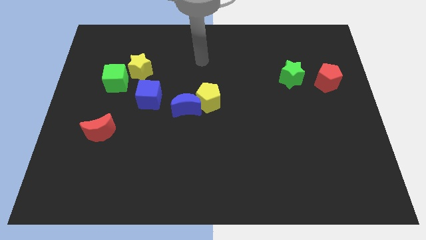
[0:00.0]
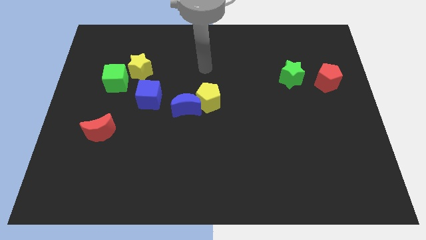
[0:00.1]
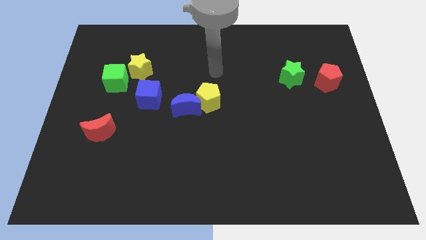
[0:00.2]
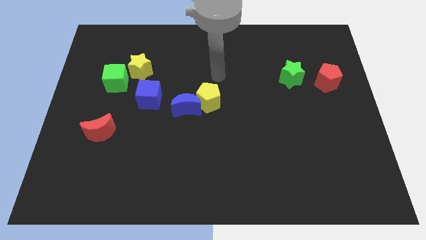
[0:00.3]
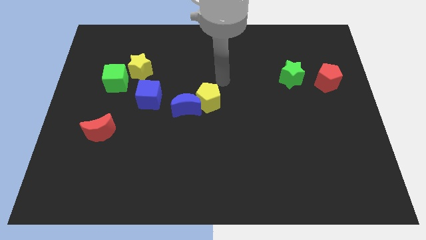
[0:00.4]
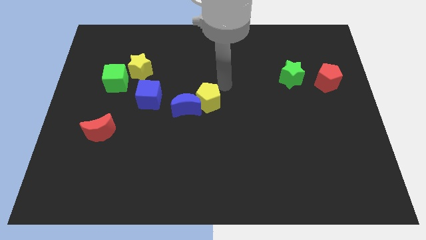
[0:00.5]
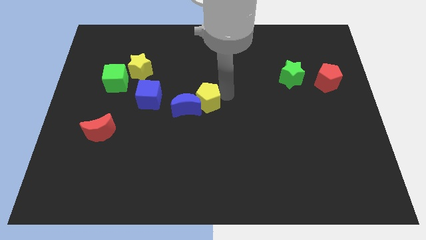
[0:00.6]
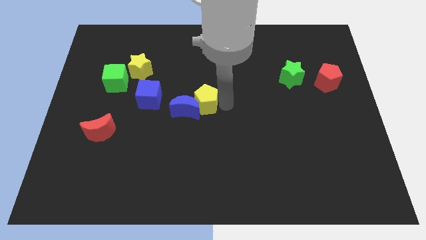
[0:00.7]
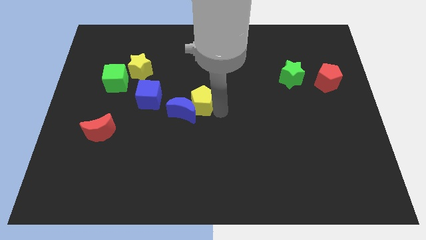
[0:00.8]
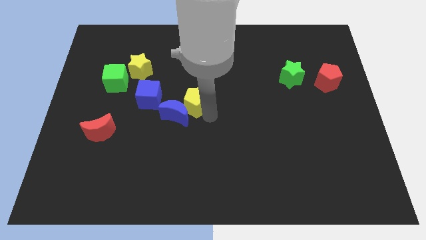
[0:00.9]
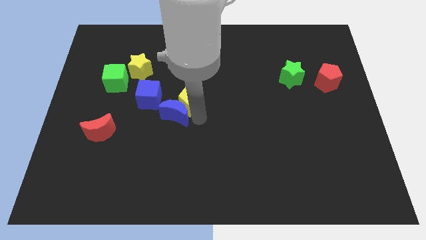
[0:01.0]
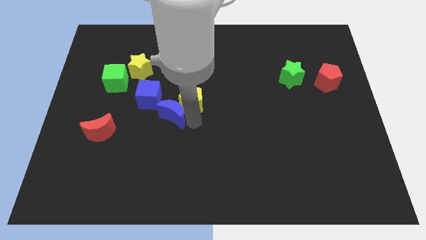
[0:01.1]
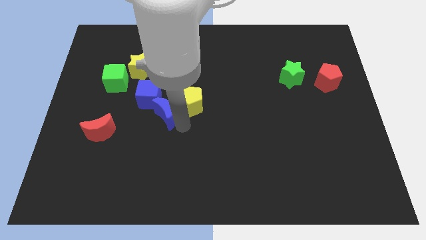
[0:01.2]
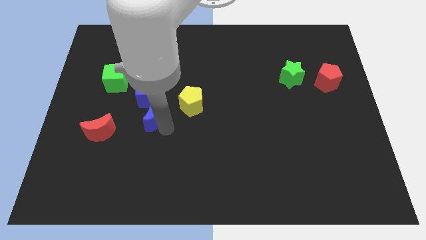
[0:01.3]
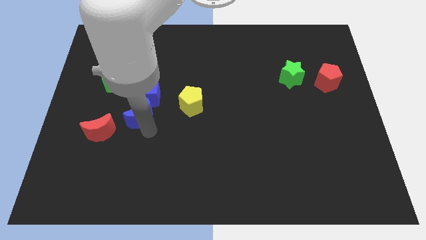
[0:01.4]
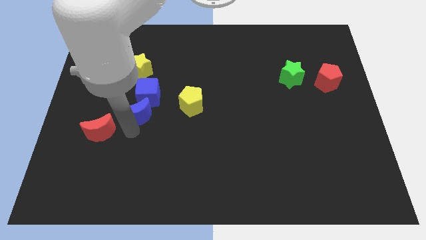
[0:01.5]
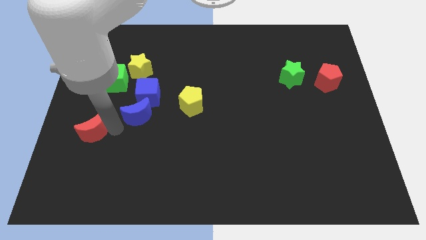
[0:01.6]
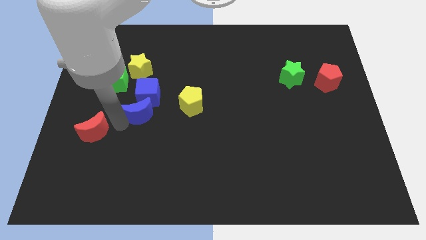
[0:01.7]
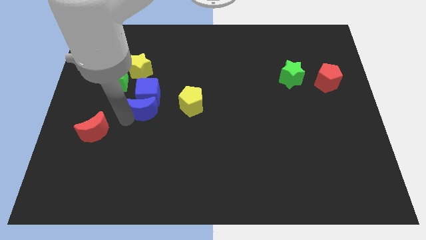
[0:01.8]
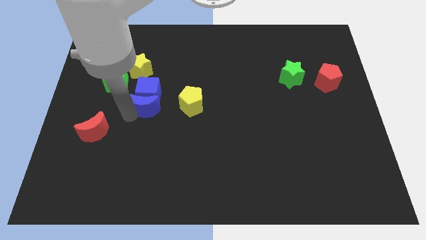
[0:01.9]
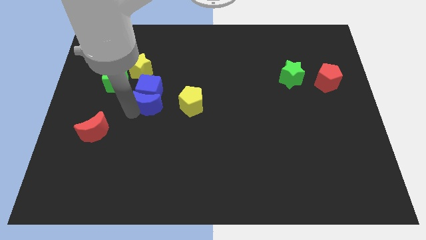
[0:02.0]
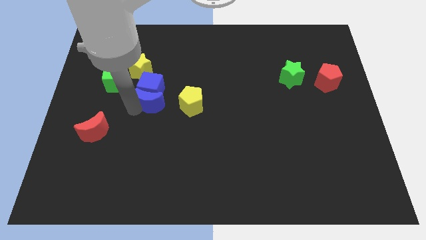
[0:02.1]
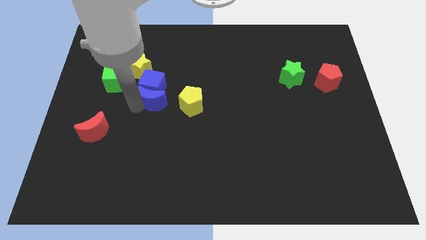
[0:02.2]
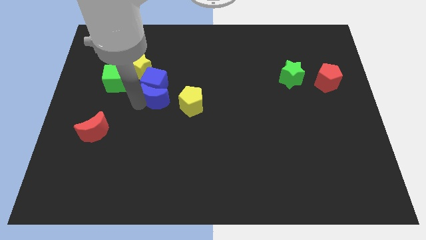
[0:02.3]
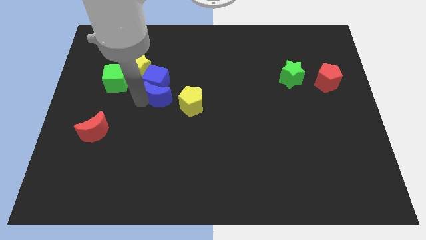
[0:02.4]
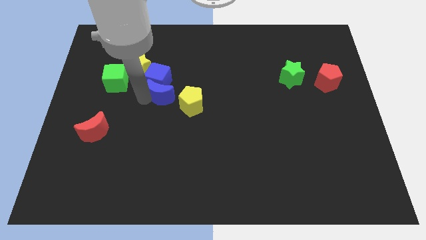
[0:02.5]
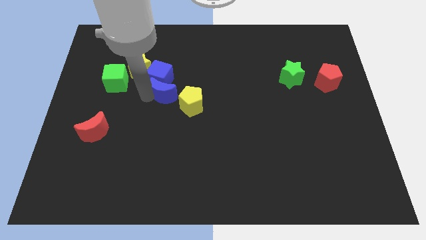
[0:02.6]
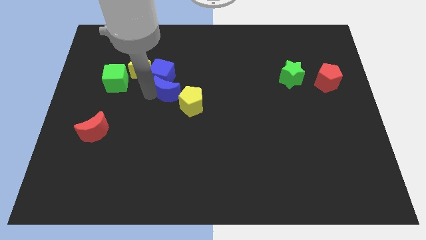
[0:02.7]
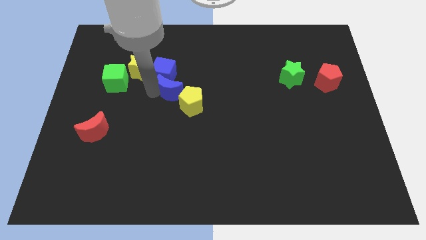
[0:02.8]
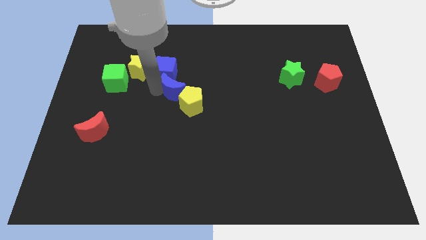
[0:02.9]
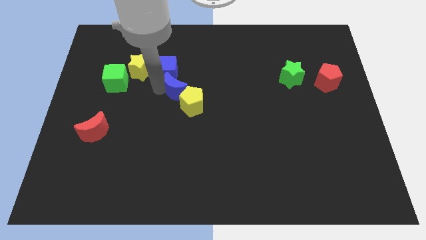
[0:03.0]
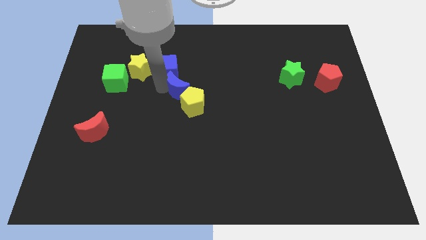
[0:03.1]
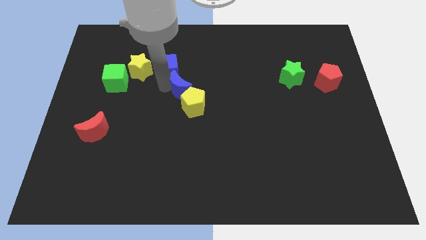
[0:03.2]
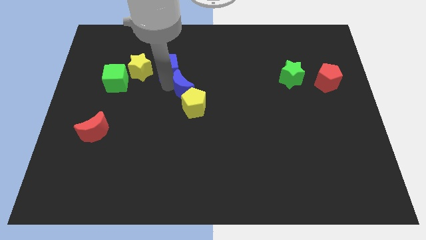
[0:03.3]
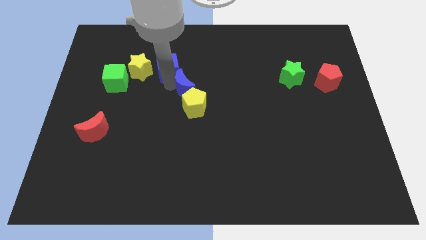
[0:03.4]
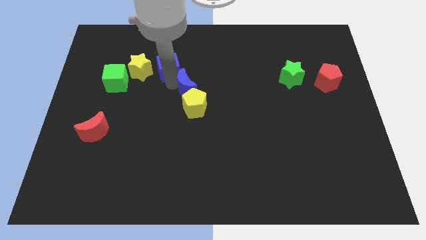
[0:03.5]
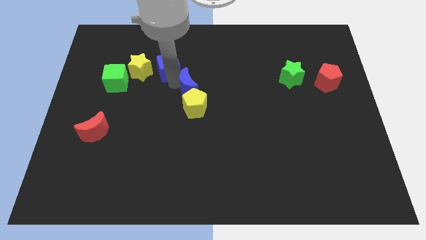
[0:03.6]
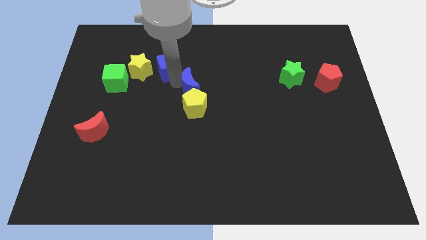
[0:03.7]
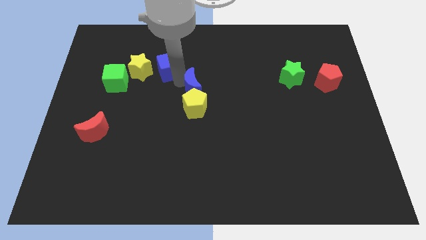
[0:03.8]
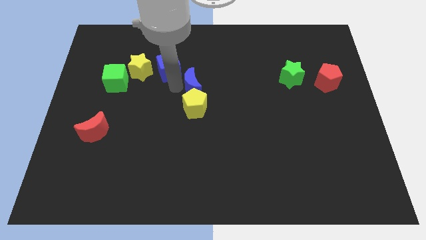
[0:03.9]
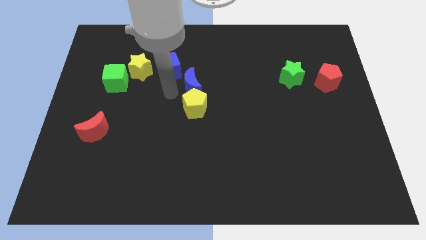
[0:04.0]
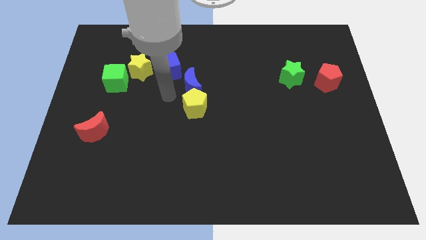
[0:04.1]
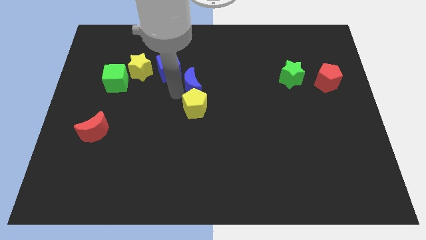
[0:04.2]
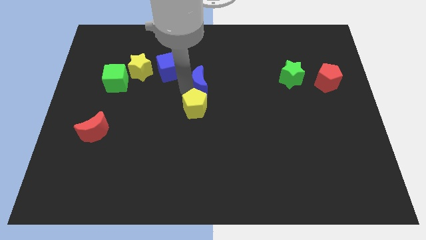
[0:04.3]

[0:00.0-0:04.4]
slightly move the blue moon upwards and right diagonally

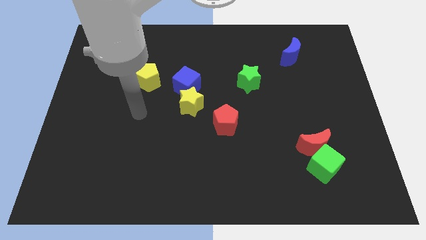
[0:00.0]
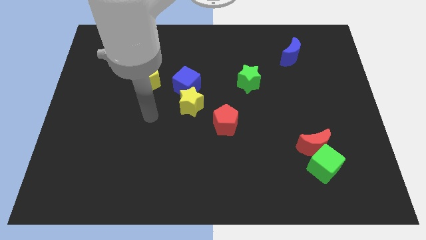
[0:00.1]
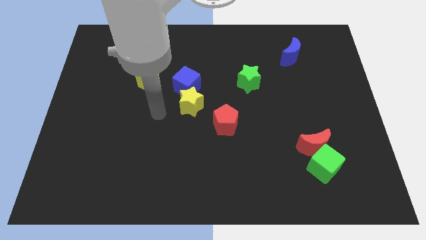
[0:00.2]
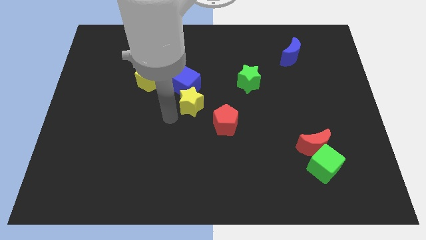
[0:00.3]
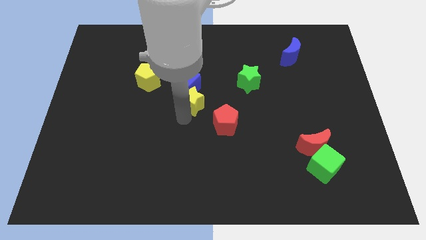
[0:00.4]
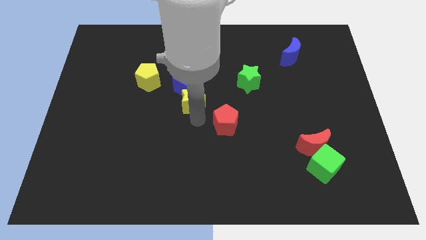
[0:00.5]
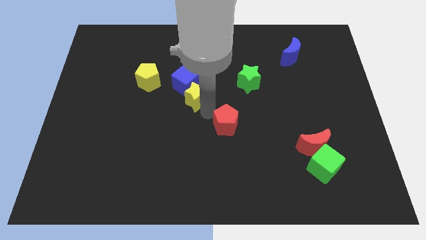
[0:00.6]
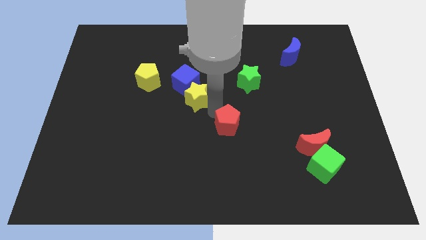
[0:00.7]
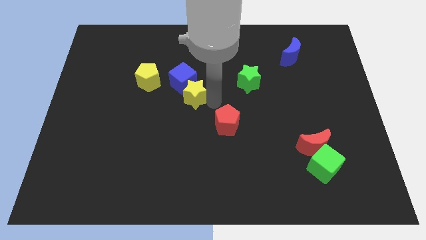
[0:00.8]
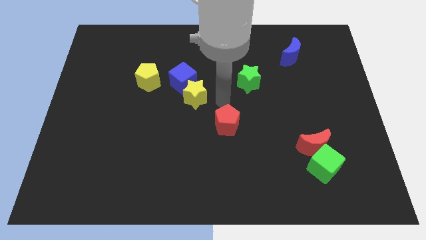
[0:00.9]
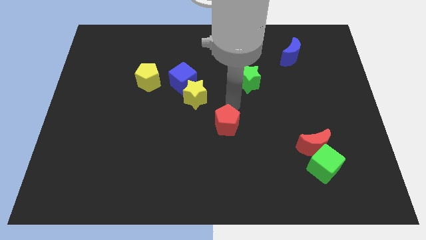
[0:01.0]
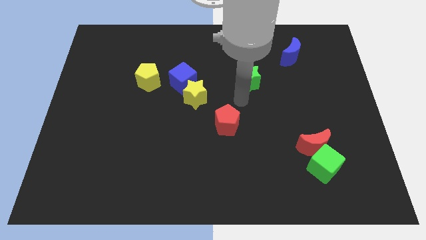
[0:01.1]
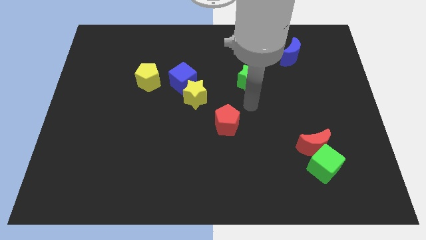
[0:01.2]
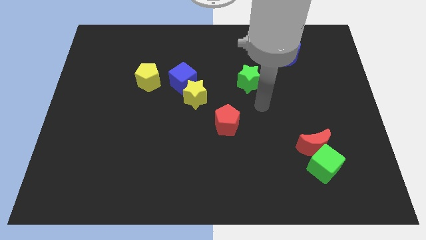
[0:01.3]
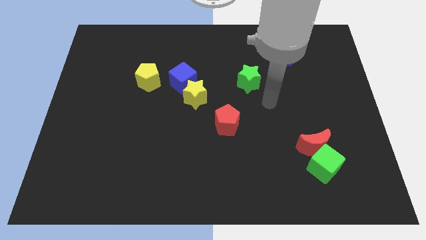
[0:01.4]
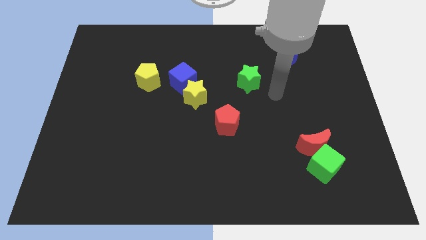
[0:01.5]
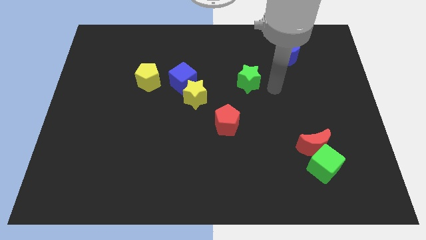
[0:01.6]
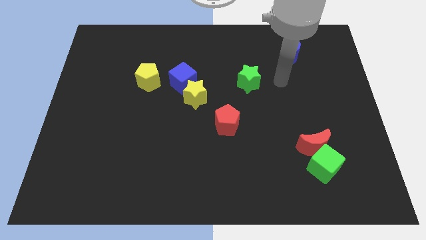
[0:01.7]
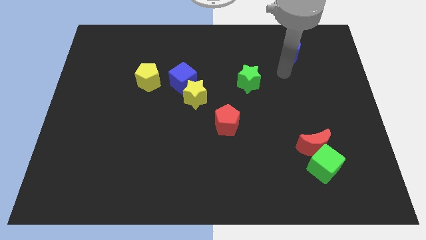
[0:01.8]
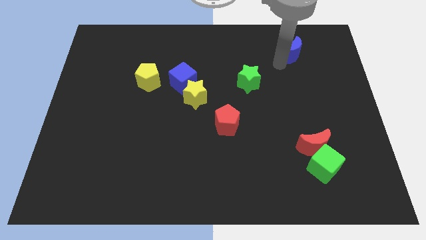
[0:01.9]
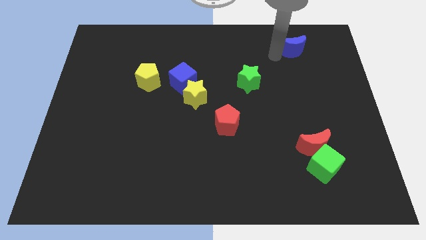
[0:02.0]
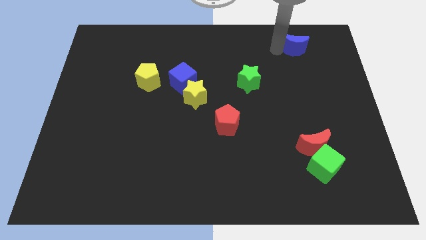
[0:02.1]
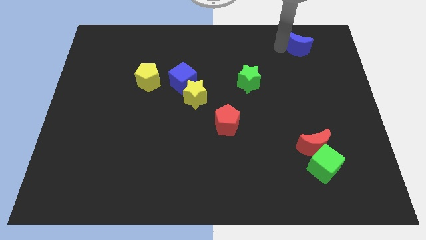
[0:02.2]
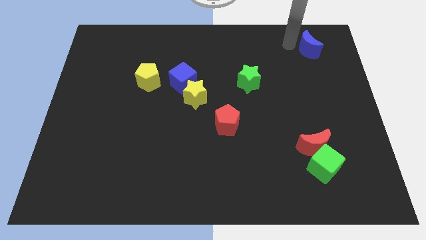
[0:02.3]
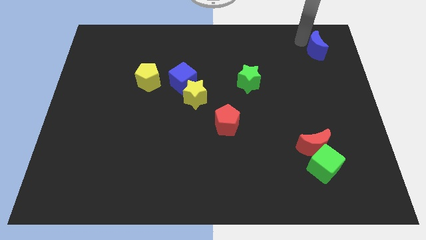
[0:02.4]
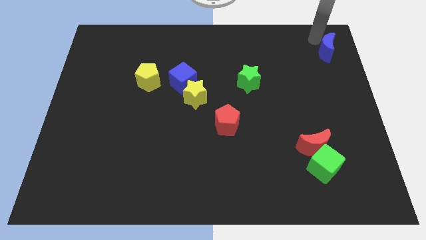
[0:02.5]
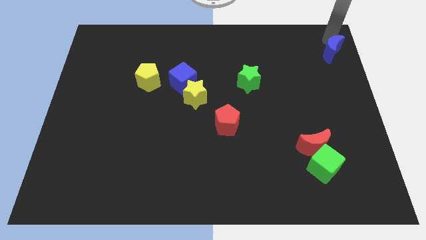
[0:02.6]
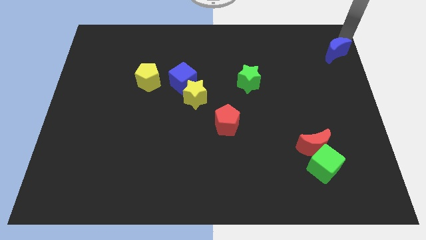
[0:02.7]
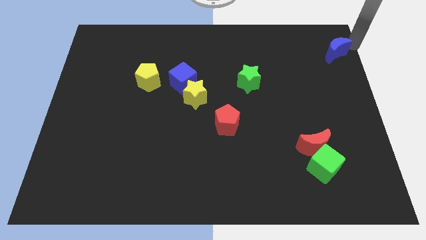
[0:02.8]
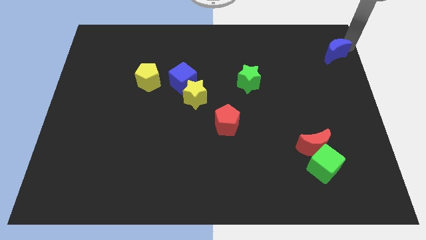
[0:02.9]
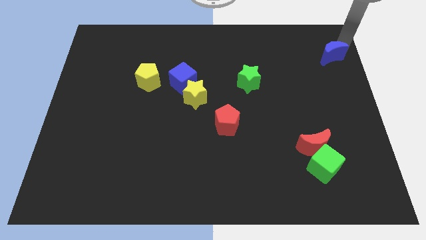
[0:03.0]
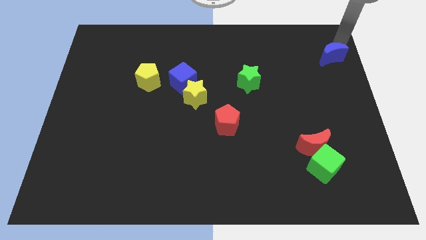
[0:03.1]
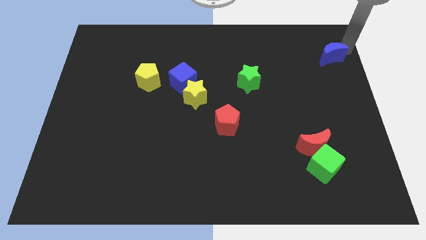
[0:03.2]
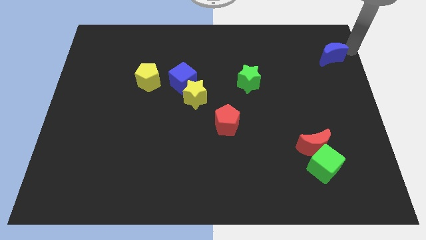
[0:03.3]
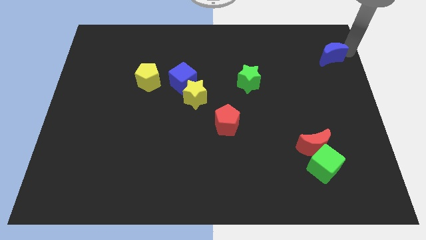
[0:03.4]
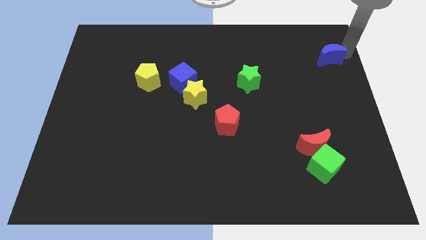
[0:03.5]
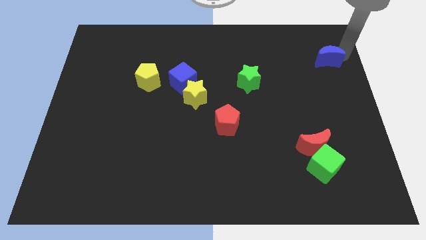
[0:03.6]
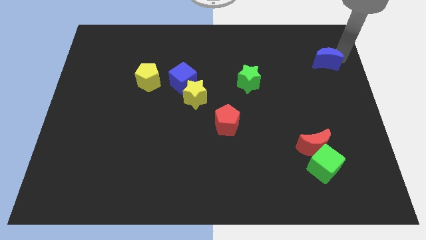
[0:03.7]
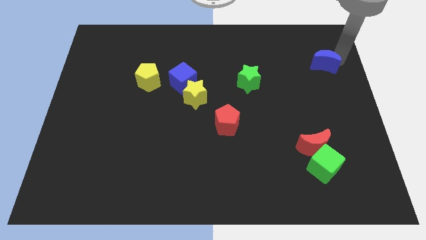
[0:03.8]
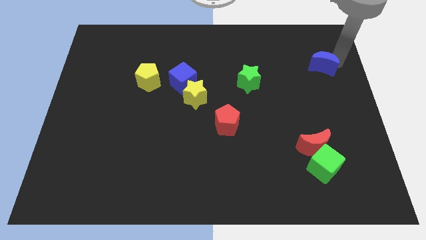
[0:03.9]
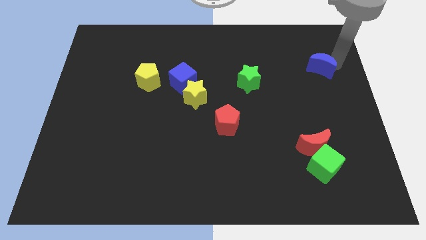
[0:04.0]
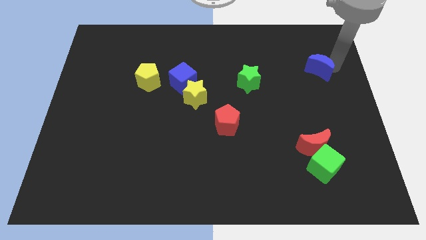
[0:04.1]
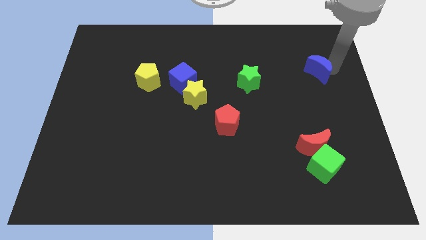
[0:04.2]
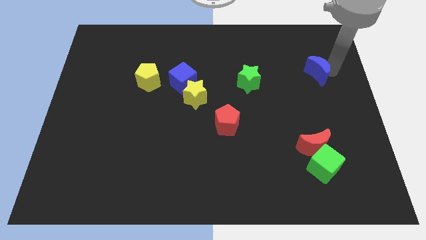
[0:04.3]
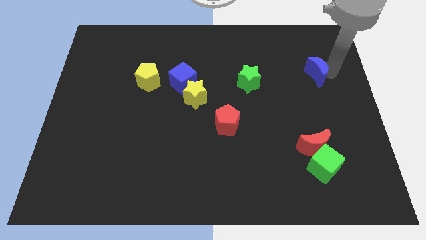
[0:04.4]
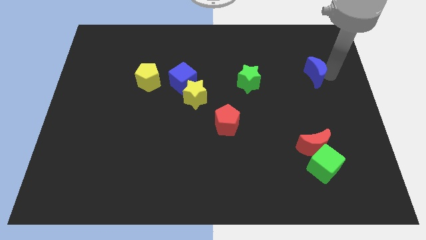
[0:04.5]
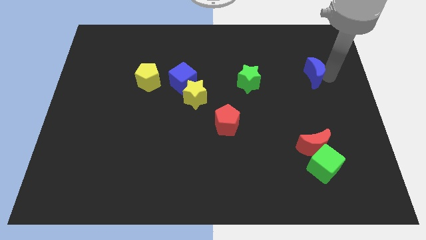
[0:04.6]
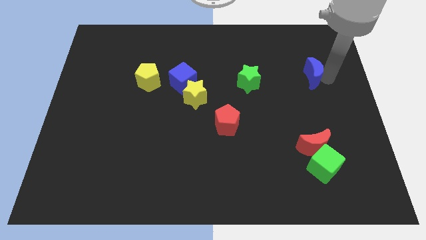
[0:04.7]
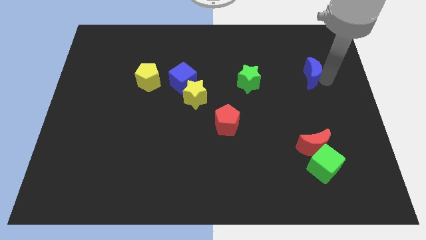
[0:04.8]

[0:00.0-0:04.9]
slightly move the blue moon downwards
